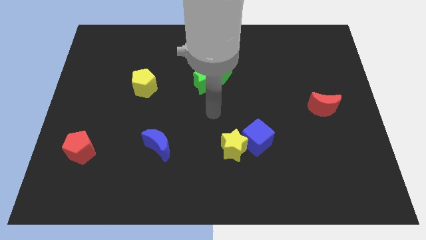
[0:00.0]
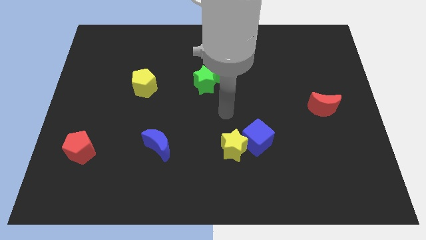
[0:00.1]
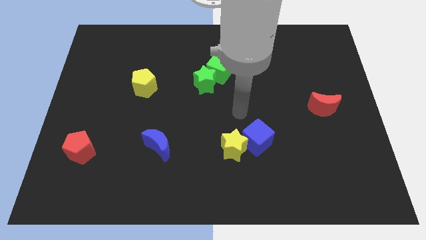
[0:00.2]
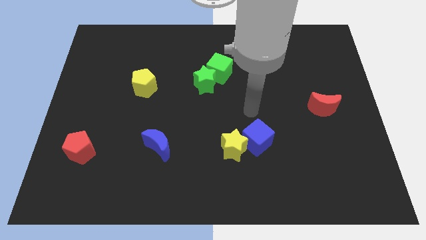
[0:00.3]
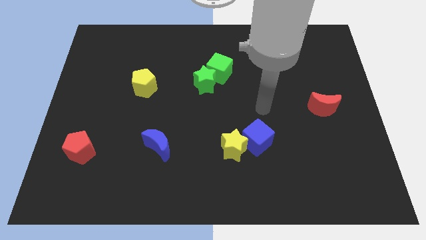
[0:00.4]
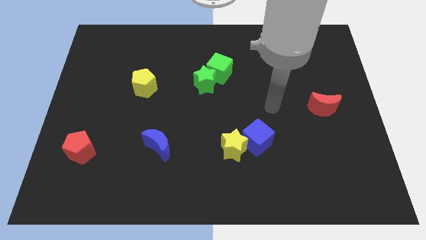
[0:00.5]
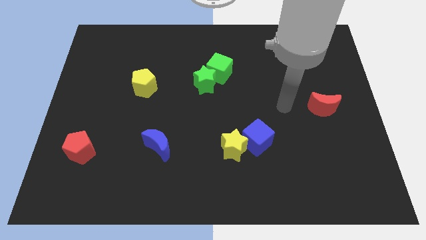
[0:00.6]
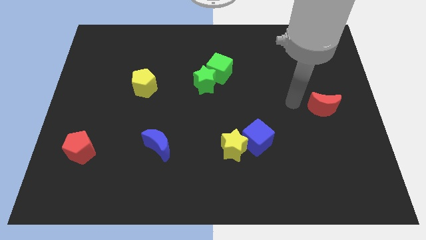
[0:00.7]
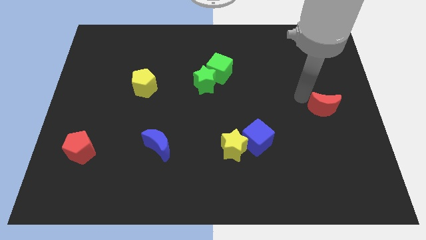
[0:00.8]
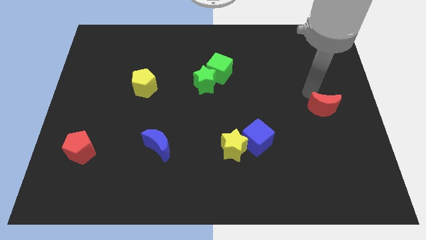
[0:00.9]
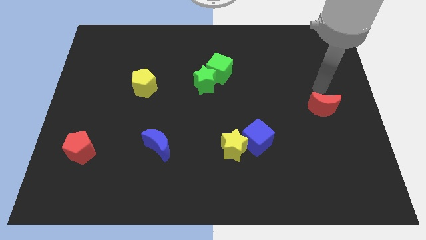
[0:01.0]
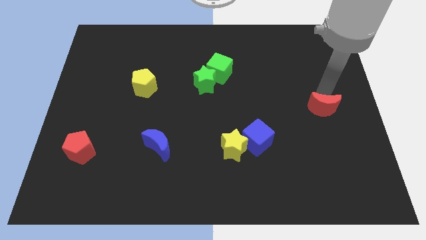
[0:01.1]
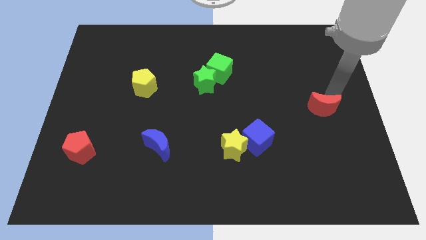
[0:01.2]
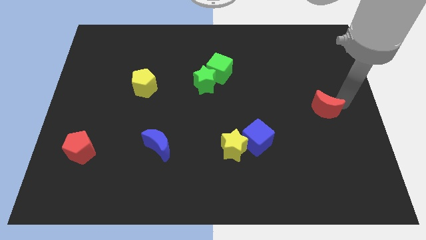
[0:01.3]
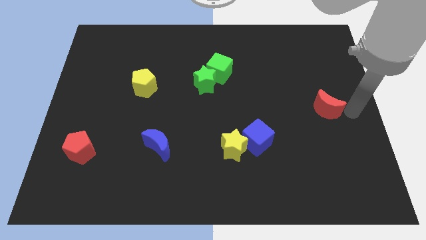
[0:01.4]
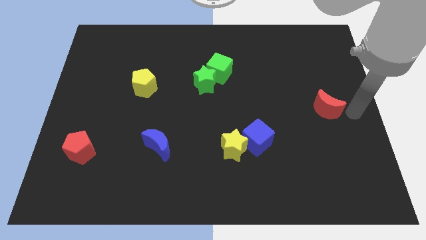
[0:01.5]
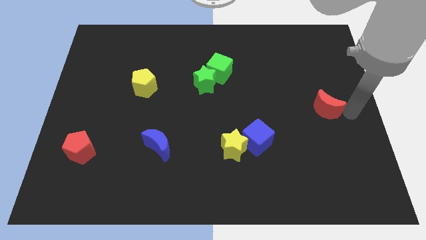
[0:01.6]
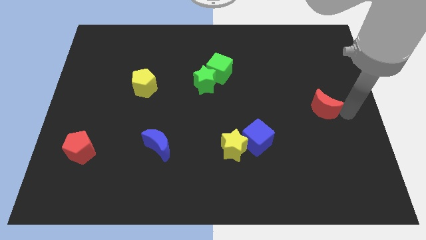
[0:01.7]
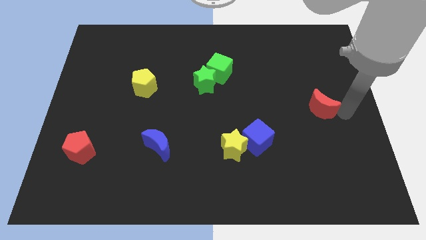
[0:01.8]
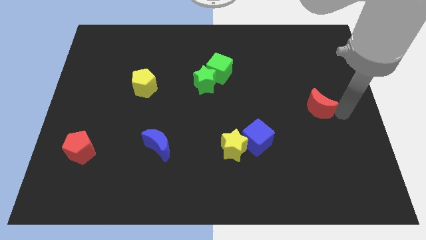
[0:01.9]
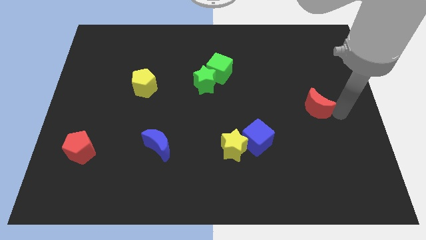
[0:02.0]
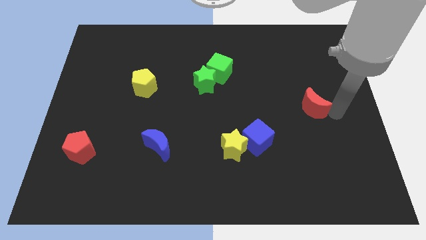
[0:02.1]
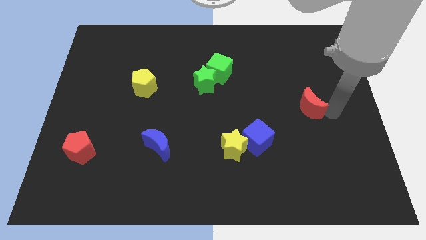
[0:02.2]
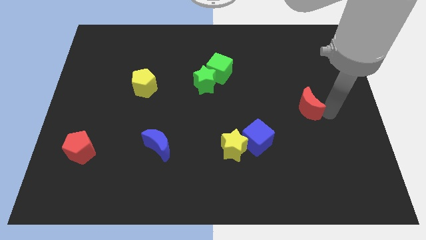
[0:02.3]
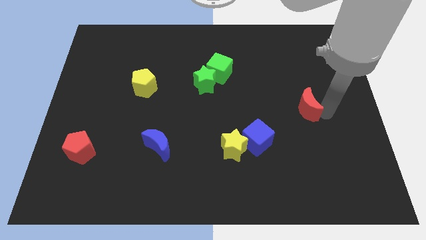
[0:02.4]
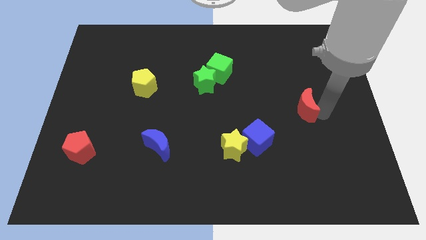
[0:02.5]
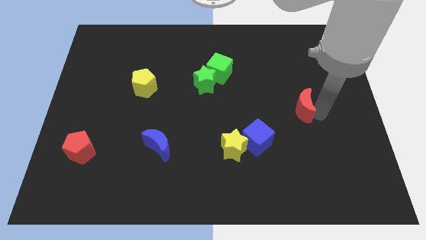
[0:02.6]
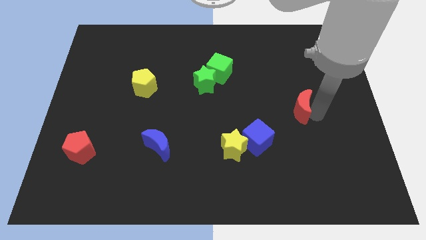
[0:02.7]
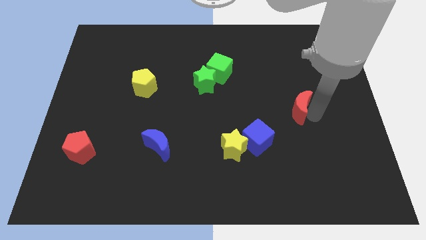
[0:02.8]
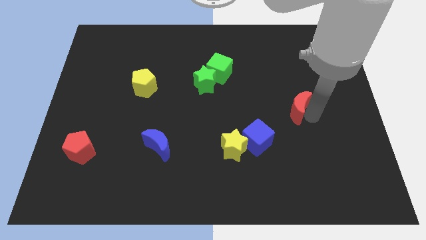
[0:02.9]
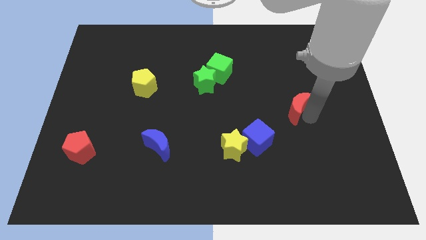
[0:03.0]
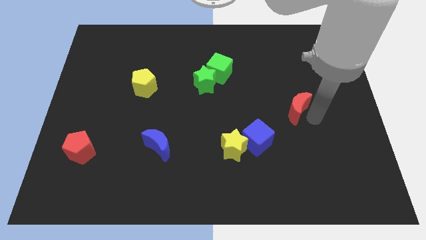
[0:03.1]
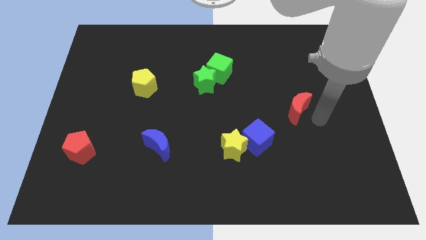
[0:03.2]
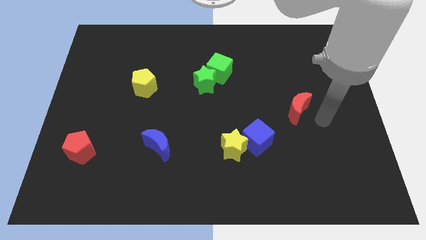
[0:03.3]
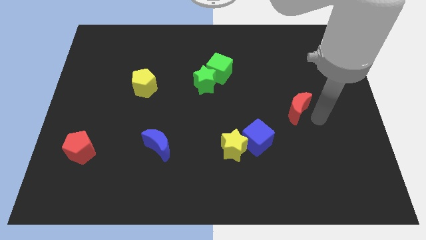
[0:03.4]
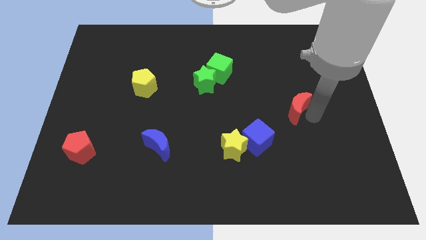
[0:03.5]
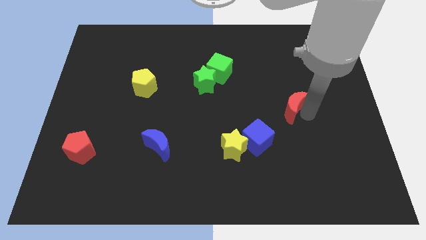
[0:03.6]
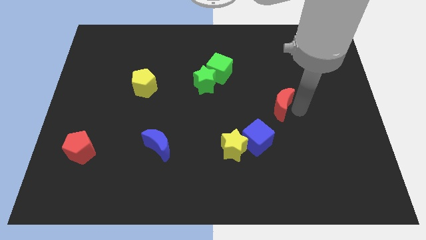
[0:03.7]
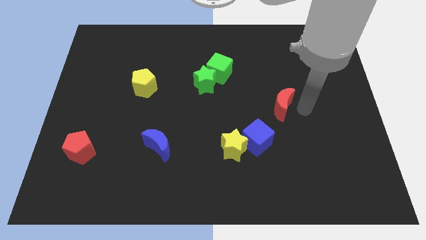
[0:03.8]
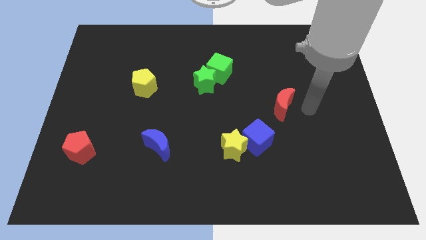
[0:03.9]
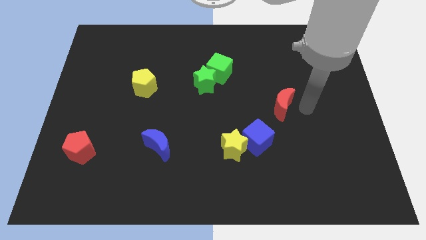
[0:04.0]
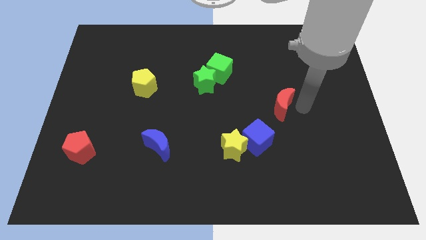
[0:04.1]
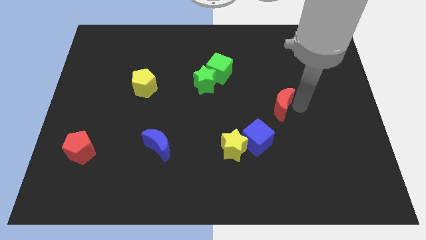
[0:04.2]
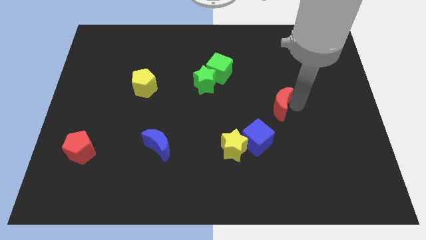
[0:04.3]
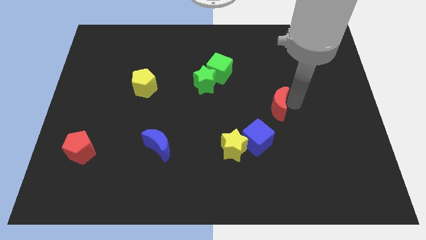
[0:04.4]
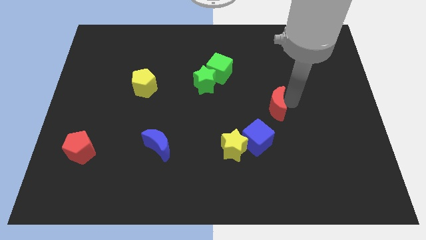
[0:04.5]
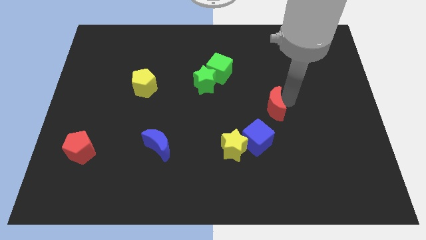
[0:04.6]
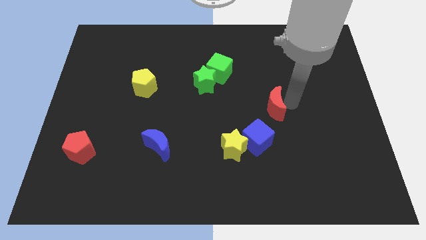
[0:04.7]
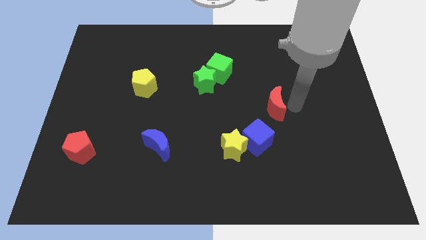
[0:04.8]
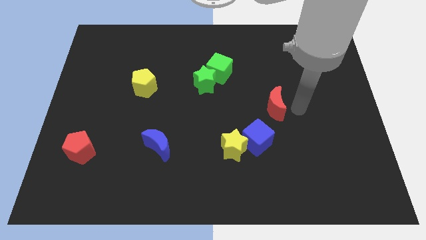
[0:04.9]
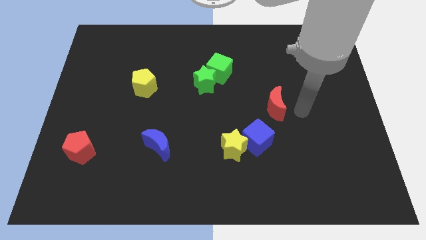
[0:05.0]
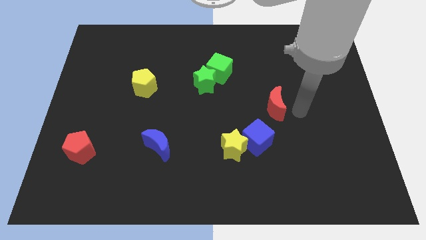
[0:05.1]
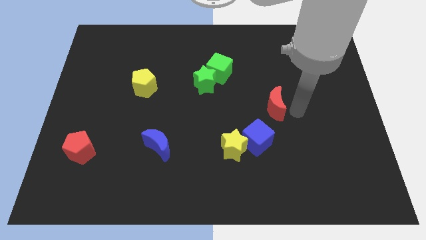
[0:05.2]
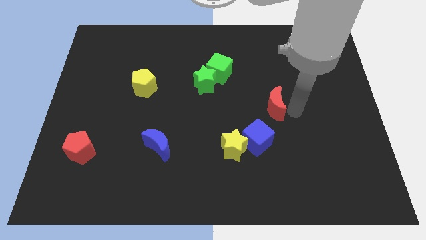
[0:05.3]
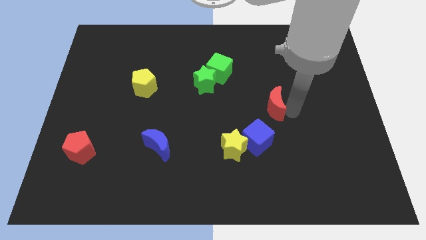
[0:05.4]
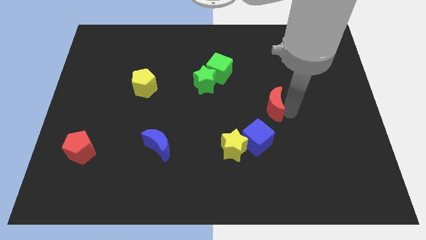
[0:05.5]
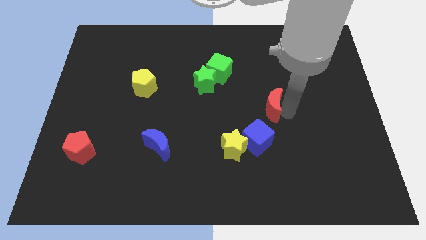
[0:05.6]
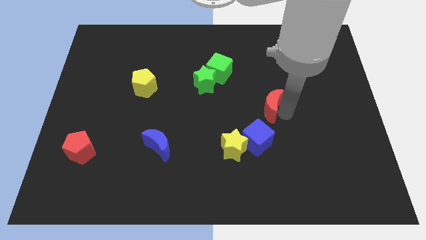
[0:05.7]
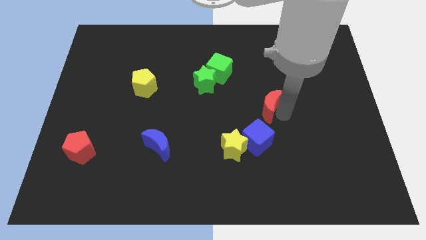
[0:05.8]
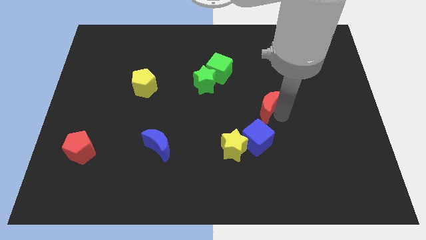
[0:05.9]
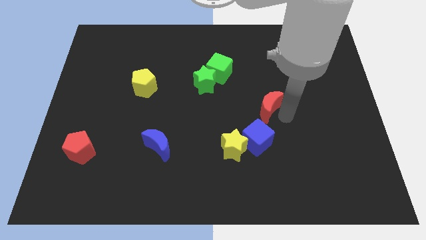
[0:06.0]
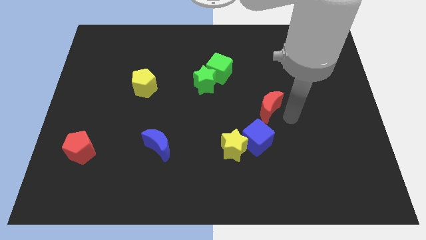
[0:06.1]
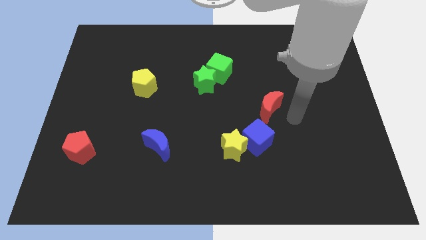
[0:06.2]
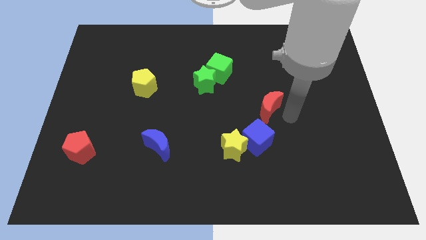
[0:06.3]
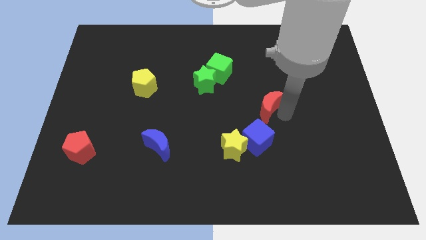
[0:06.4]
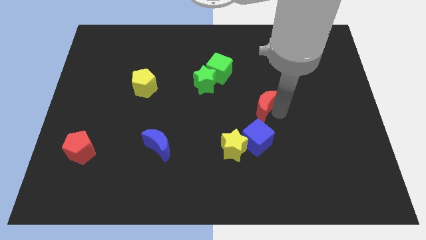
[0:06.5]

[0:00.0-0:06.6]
put the red moon to the center of the board
